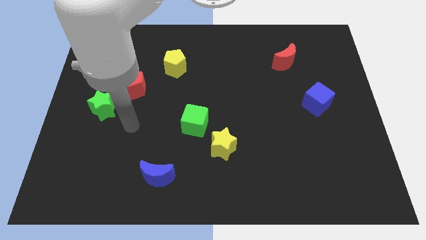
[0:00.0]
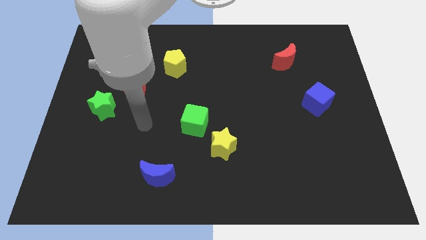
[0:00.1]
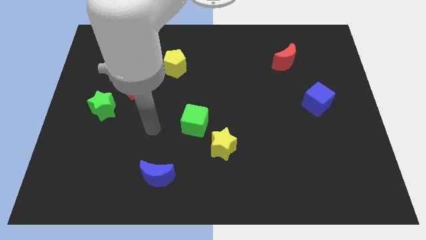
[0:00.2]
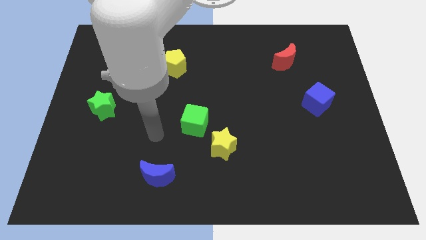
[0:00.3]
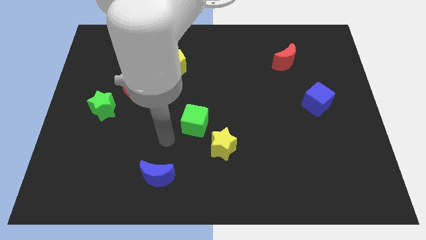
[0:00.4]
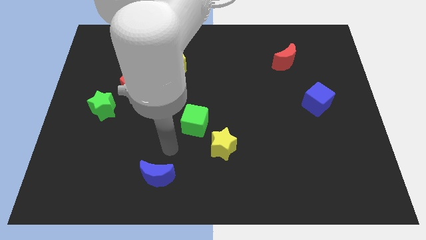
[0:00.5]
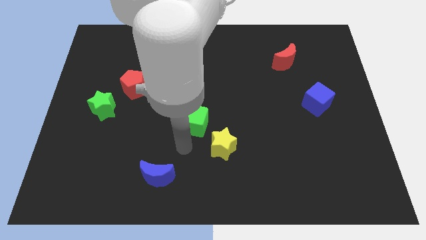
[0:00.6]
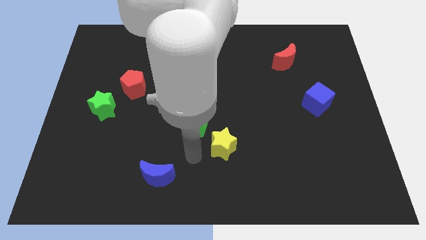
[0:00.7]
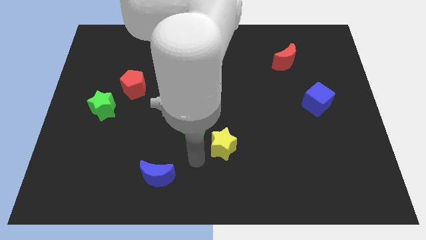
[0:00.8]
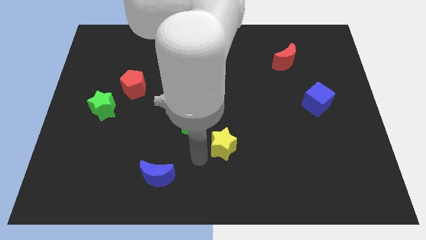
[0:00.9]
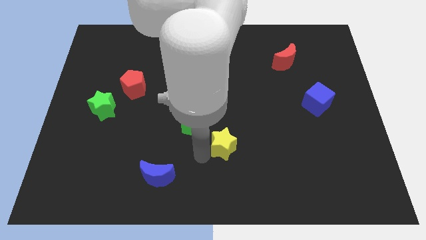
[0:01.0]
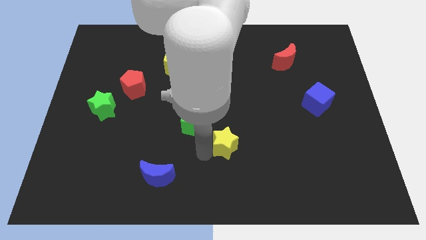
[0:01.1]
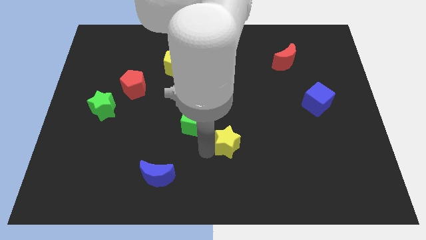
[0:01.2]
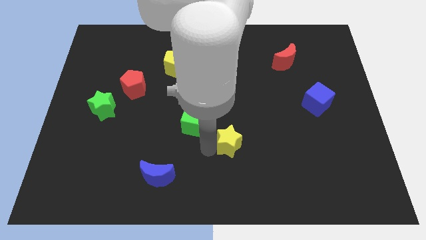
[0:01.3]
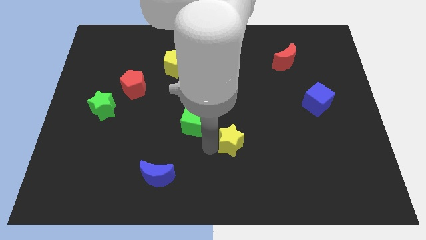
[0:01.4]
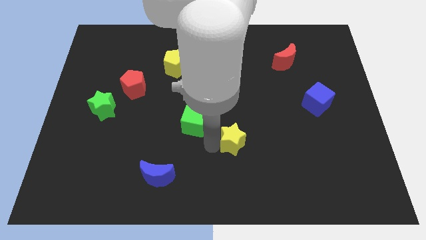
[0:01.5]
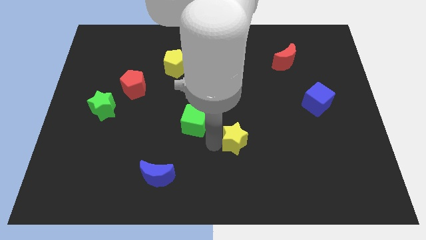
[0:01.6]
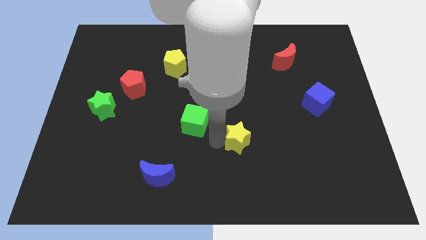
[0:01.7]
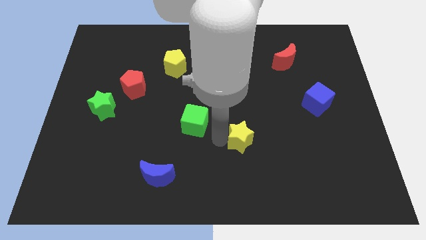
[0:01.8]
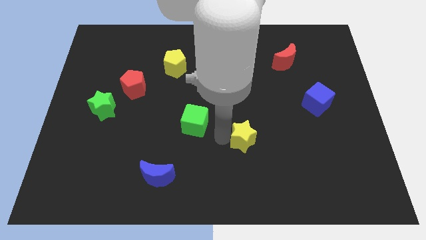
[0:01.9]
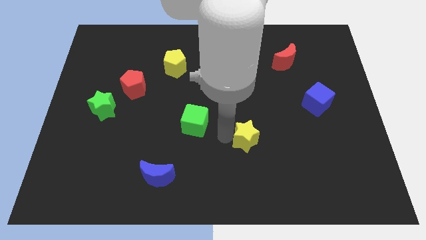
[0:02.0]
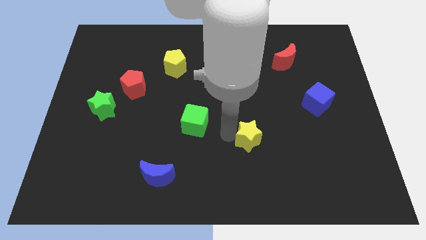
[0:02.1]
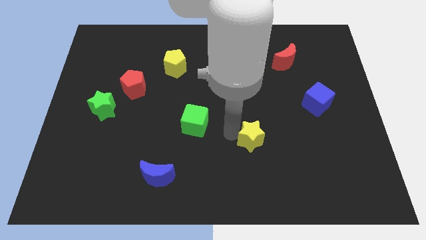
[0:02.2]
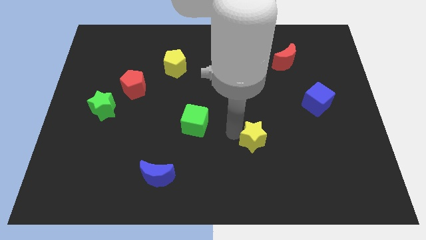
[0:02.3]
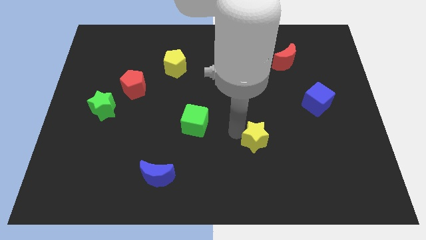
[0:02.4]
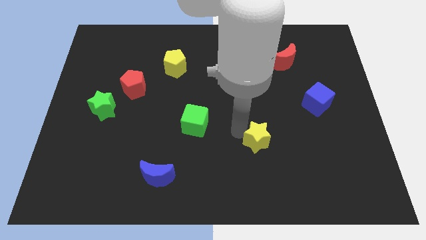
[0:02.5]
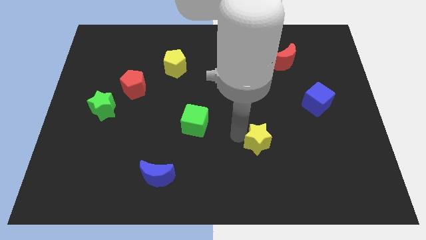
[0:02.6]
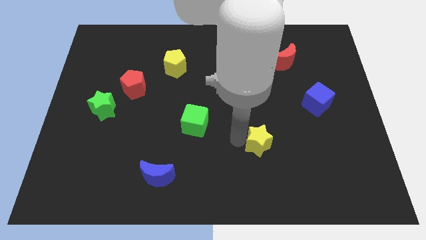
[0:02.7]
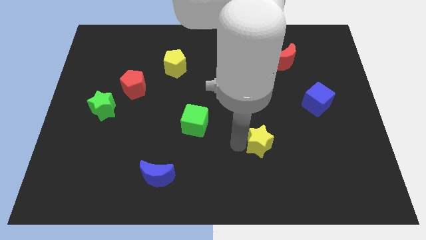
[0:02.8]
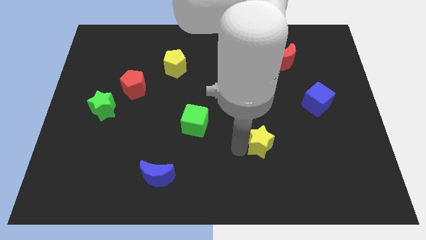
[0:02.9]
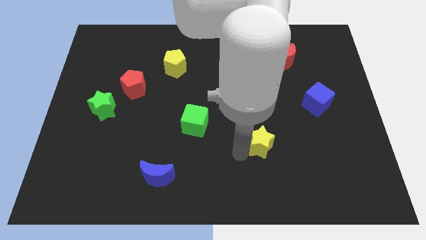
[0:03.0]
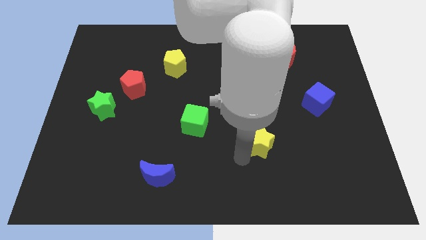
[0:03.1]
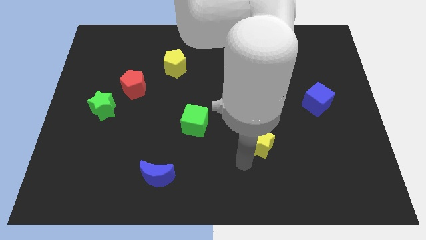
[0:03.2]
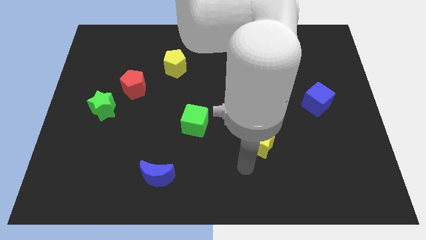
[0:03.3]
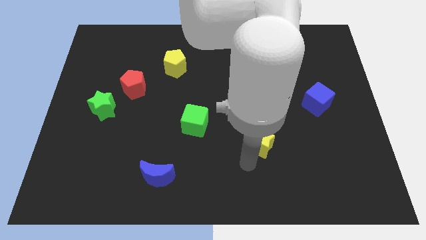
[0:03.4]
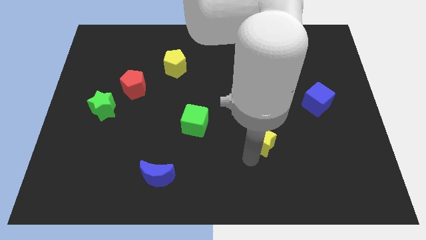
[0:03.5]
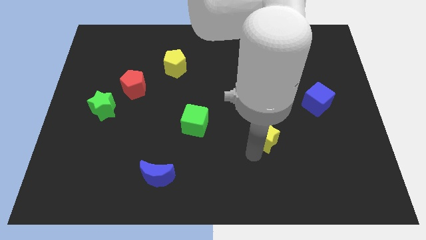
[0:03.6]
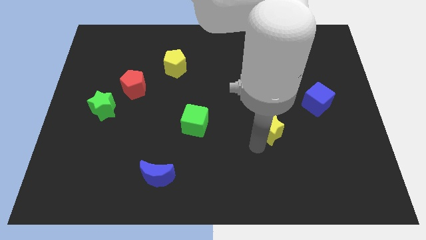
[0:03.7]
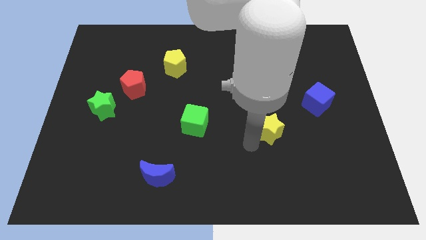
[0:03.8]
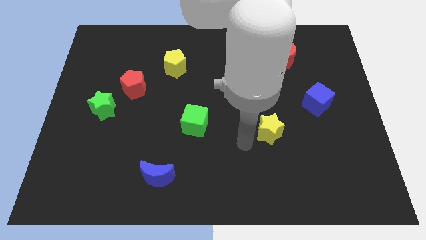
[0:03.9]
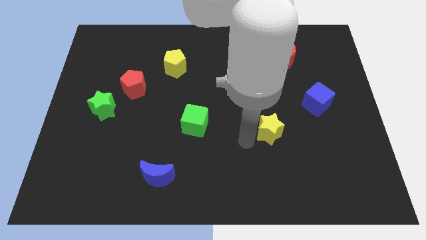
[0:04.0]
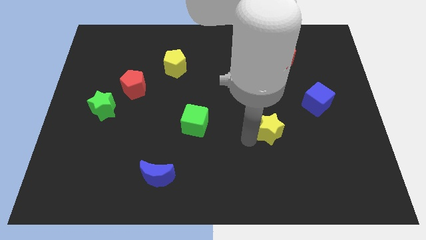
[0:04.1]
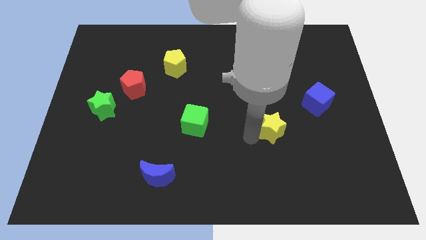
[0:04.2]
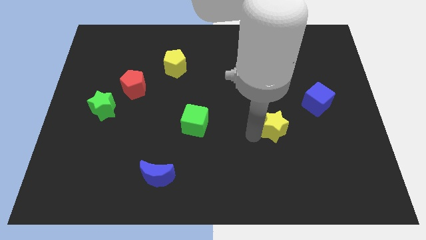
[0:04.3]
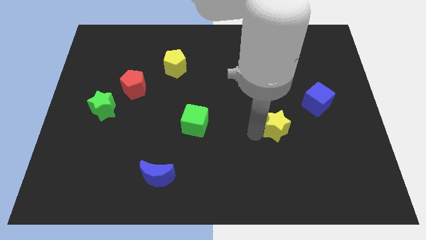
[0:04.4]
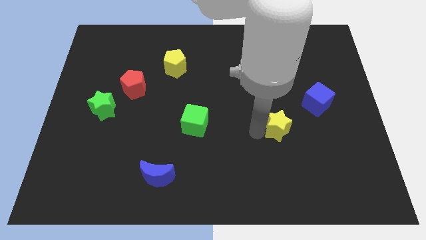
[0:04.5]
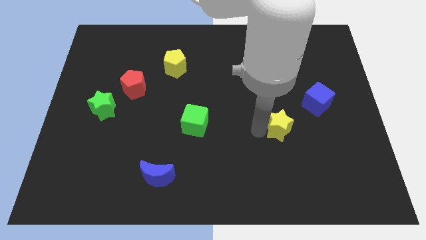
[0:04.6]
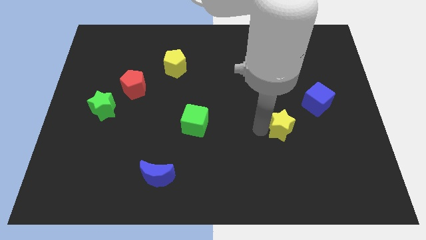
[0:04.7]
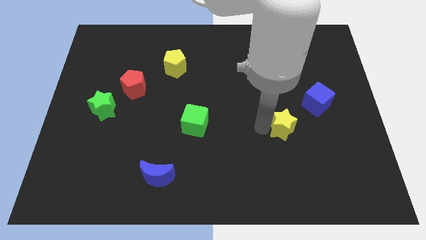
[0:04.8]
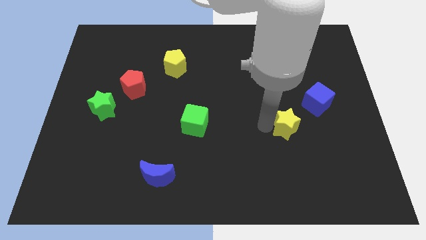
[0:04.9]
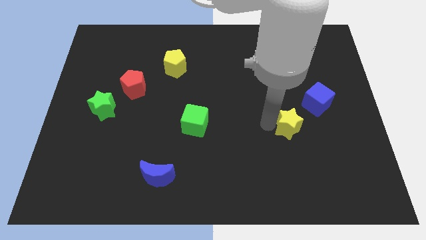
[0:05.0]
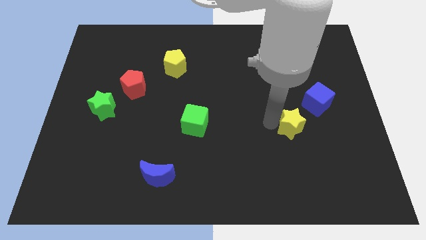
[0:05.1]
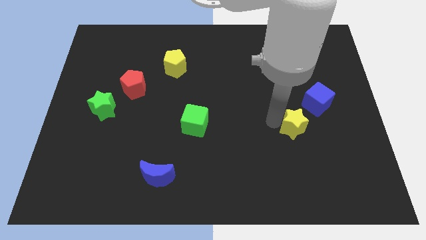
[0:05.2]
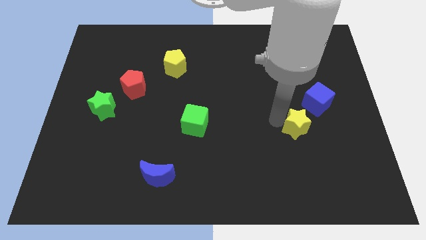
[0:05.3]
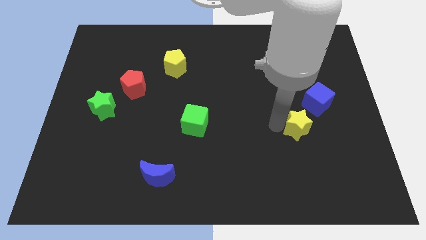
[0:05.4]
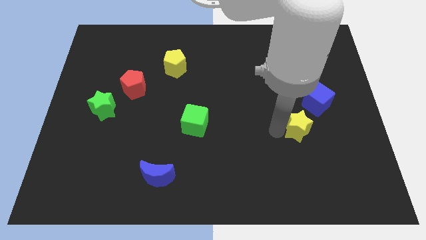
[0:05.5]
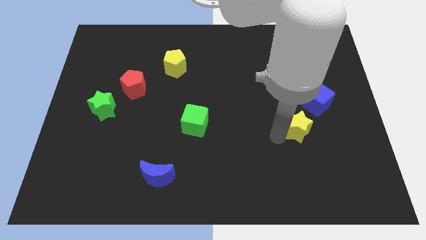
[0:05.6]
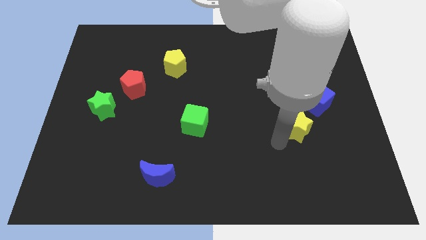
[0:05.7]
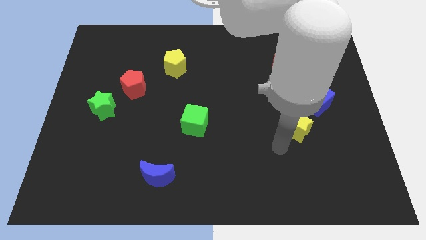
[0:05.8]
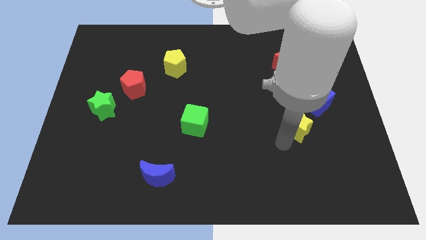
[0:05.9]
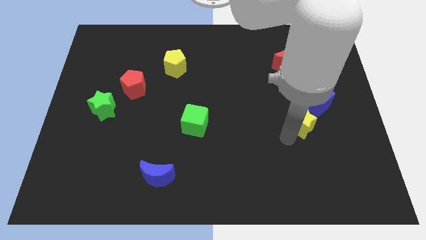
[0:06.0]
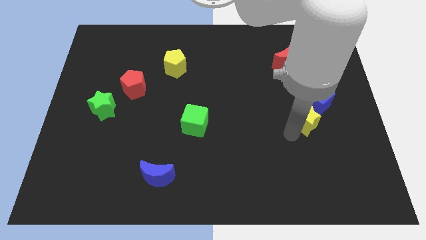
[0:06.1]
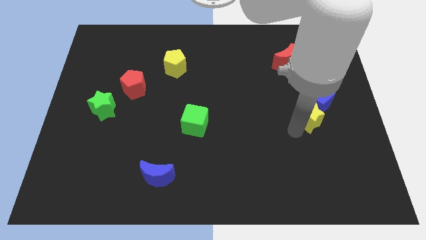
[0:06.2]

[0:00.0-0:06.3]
slide the yellow star close to the blue cube

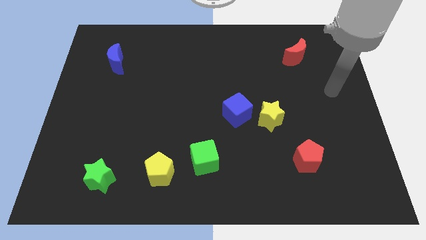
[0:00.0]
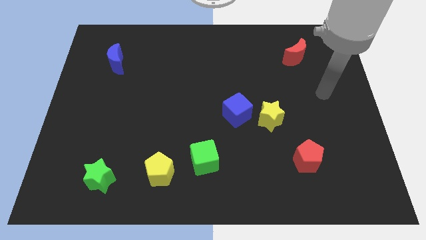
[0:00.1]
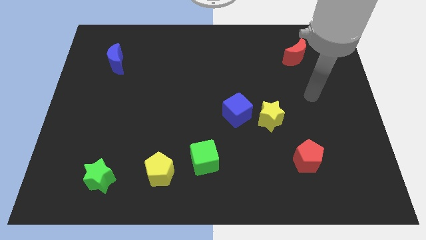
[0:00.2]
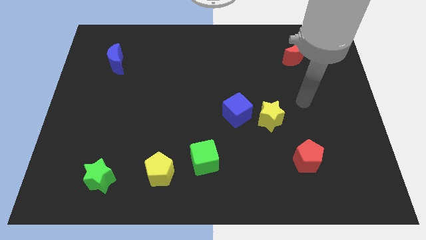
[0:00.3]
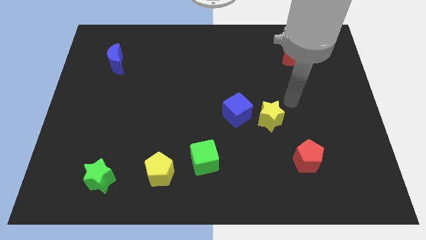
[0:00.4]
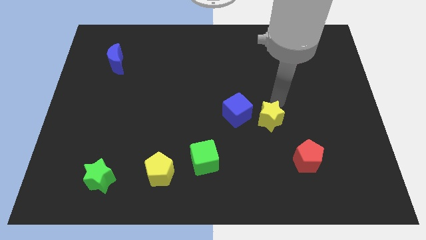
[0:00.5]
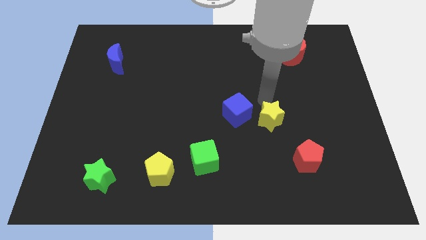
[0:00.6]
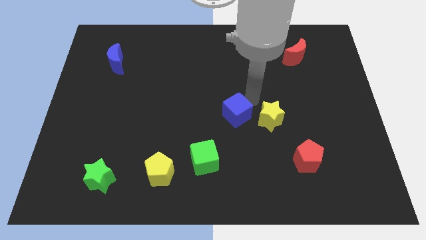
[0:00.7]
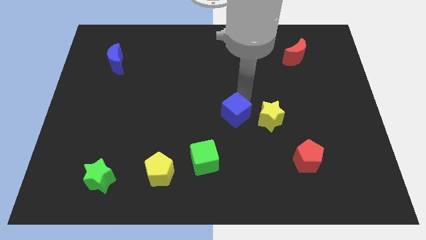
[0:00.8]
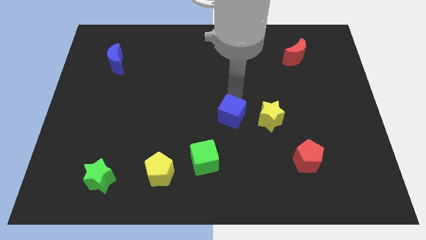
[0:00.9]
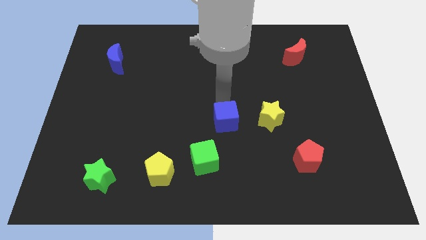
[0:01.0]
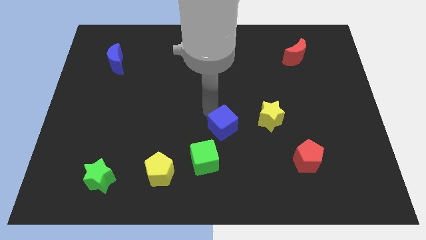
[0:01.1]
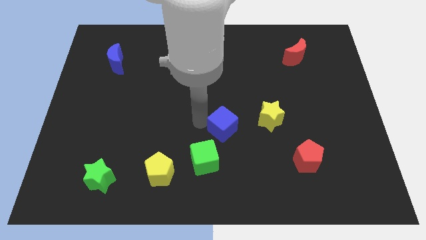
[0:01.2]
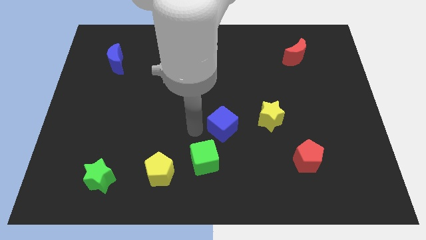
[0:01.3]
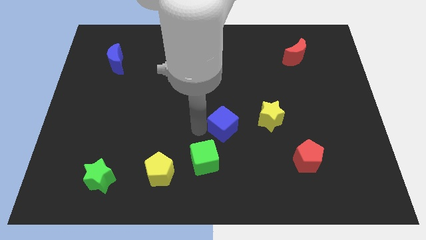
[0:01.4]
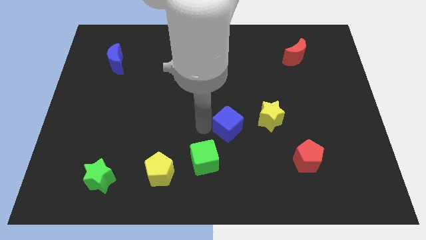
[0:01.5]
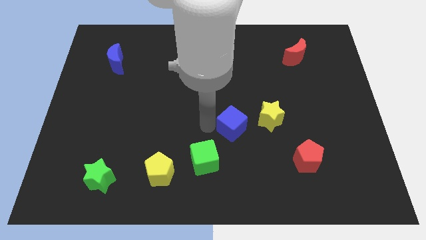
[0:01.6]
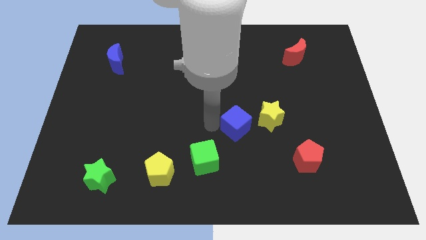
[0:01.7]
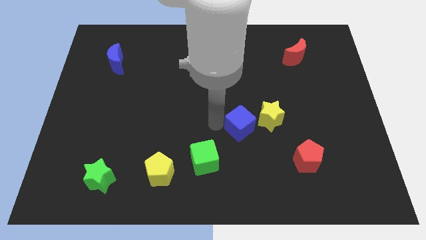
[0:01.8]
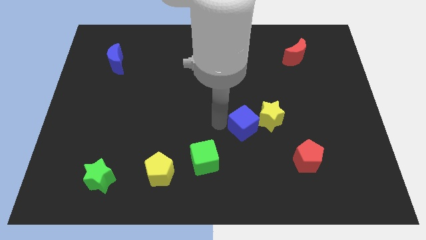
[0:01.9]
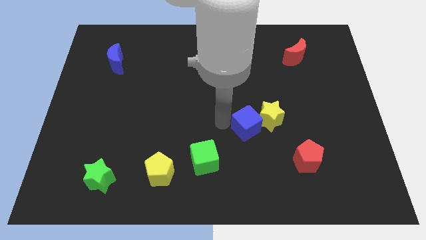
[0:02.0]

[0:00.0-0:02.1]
slide the blue cube towards the yellow star
